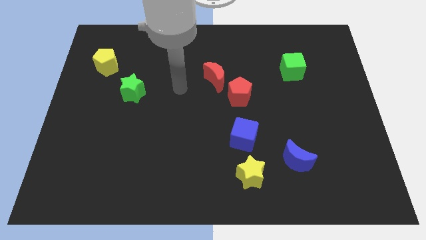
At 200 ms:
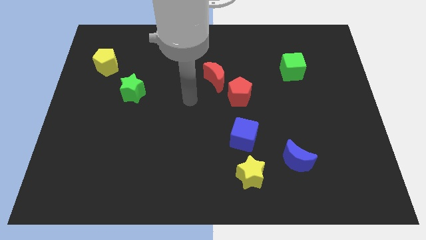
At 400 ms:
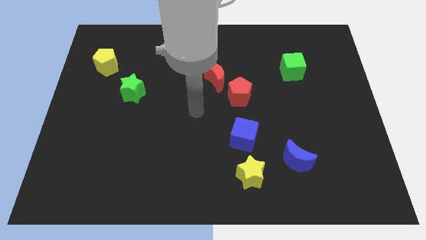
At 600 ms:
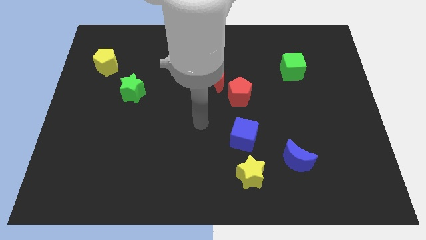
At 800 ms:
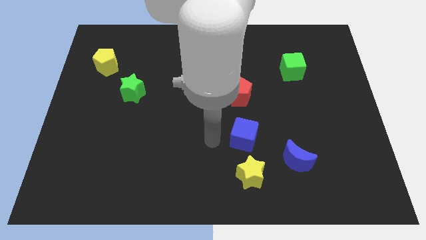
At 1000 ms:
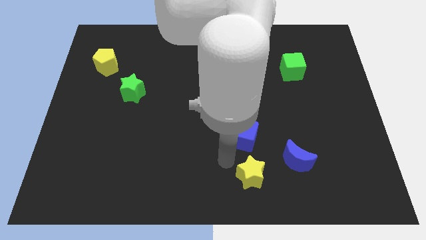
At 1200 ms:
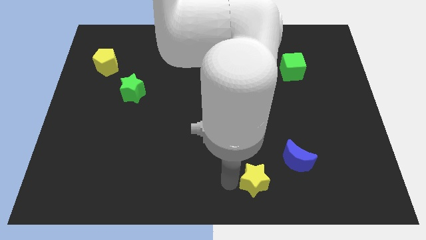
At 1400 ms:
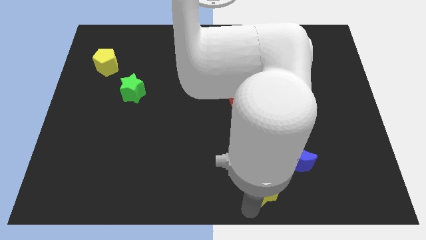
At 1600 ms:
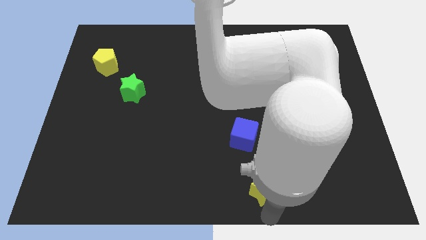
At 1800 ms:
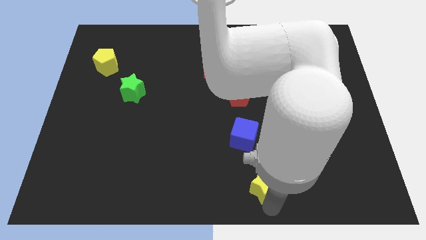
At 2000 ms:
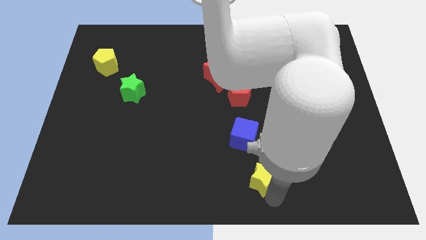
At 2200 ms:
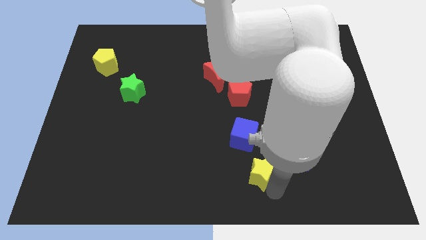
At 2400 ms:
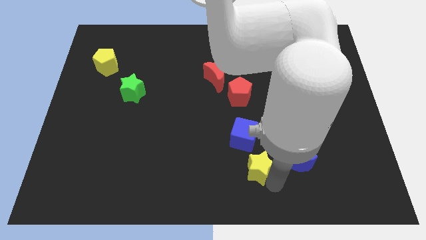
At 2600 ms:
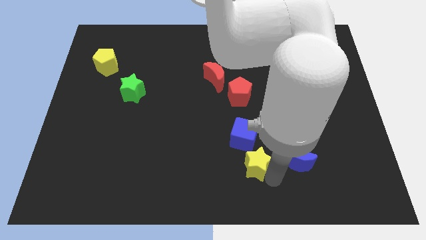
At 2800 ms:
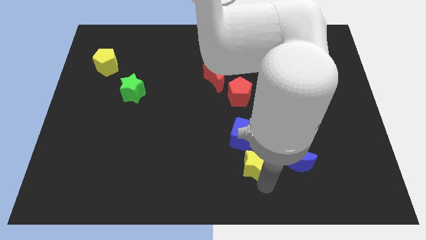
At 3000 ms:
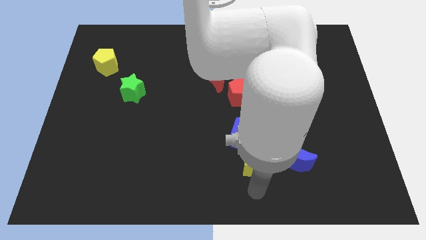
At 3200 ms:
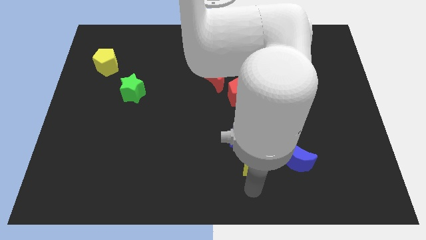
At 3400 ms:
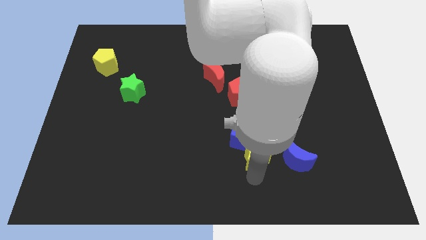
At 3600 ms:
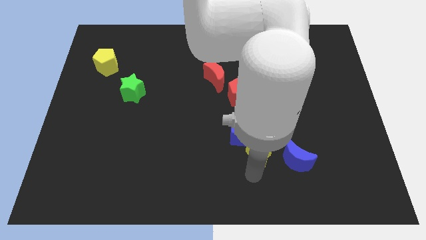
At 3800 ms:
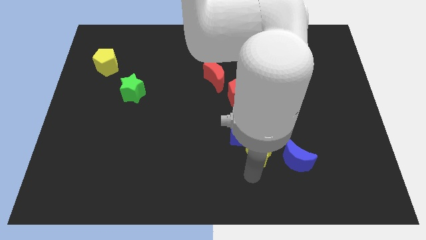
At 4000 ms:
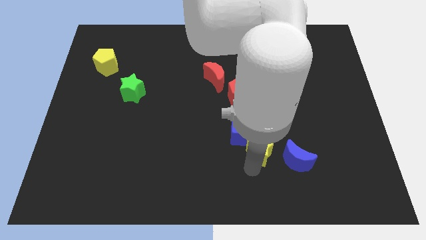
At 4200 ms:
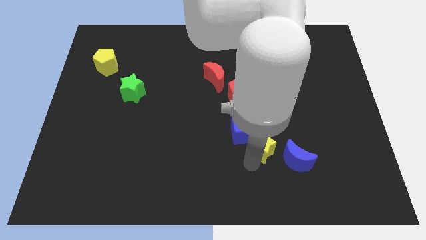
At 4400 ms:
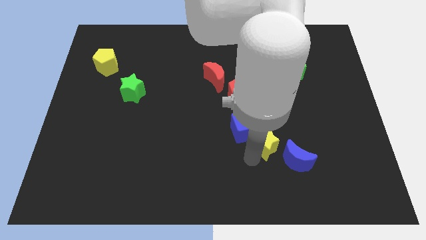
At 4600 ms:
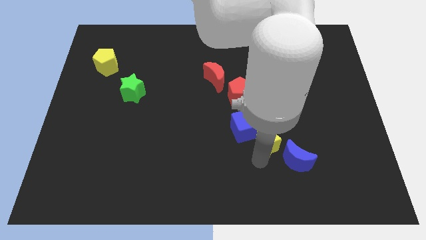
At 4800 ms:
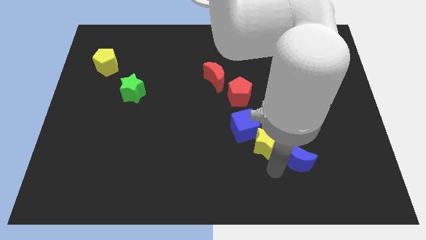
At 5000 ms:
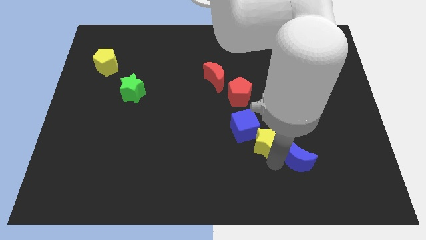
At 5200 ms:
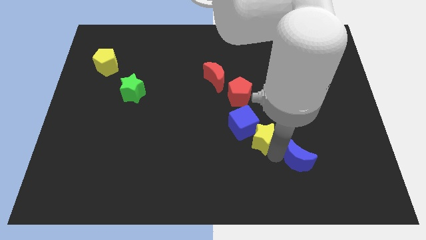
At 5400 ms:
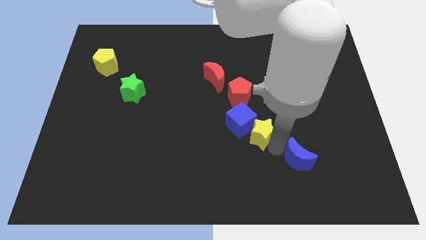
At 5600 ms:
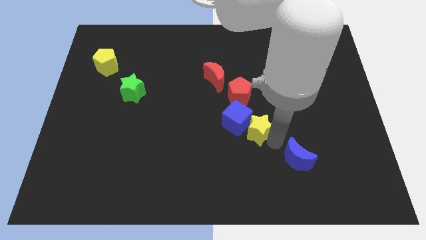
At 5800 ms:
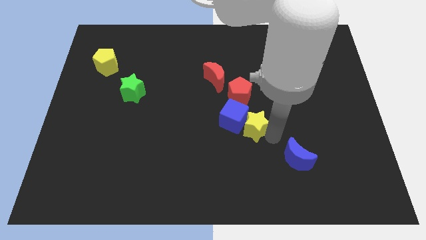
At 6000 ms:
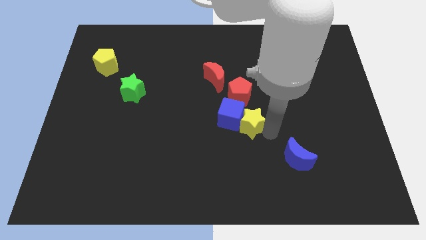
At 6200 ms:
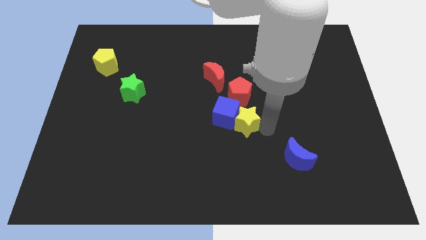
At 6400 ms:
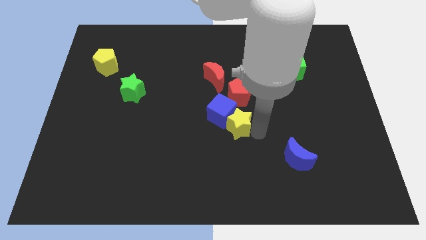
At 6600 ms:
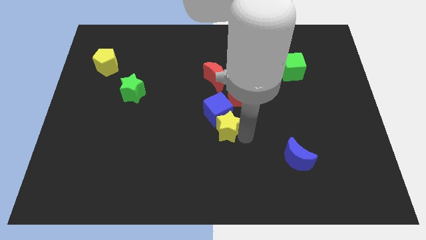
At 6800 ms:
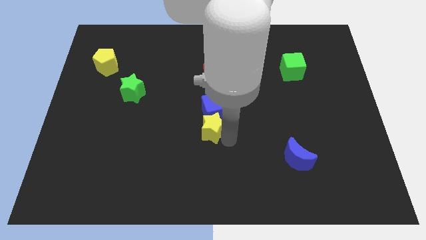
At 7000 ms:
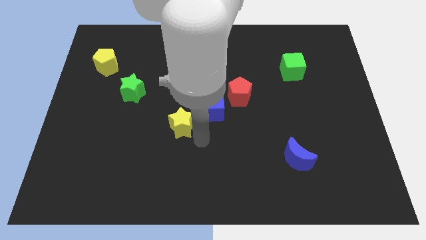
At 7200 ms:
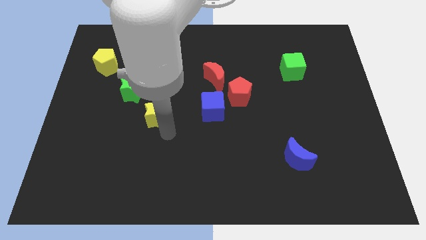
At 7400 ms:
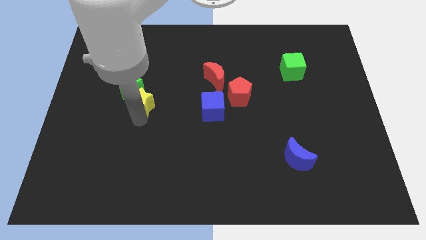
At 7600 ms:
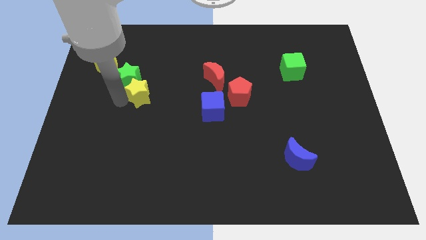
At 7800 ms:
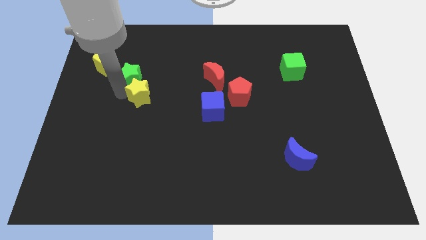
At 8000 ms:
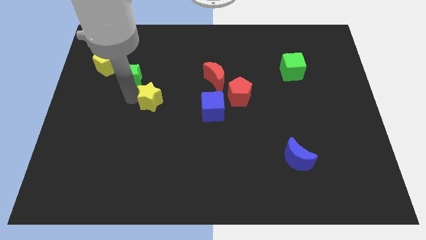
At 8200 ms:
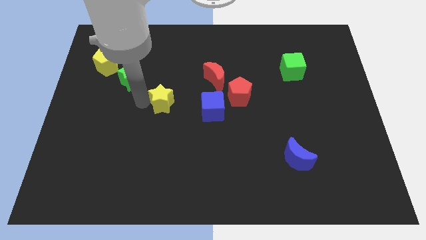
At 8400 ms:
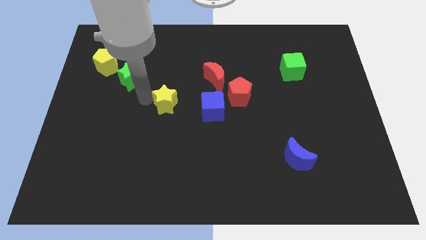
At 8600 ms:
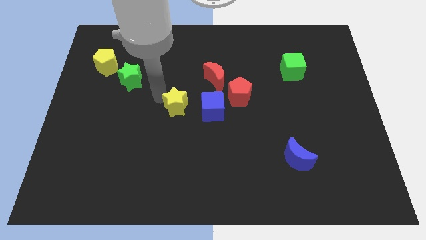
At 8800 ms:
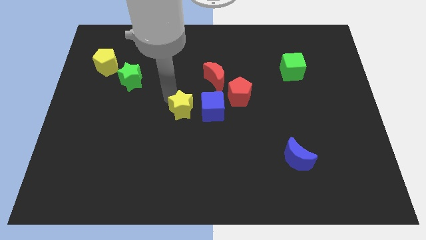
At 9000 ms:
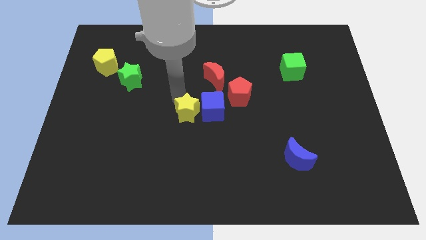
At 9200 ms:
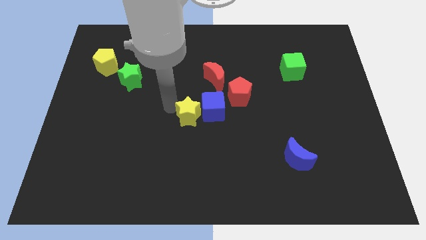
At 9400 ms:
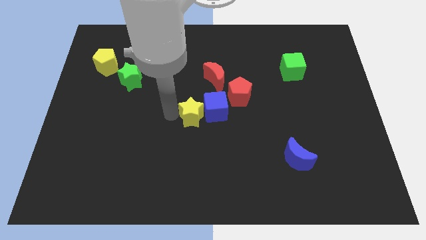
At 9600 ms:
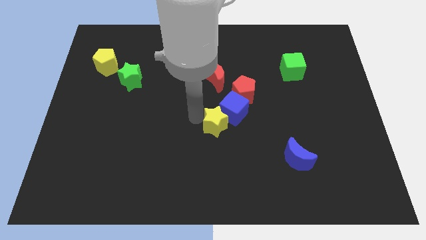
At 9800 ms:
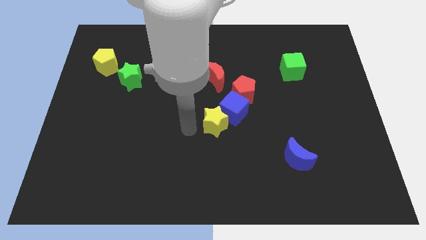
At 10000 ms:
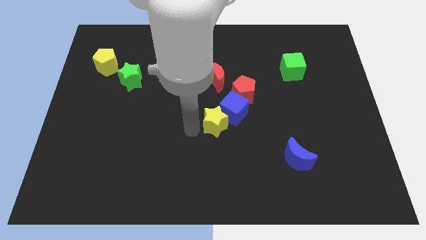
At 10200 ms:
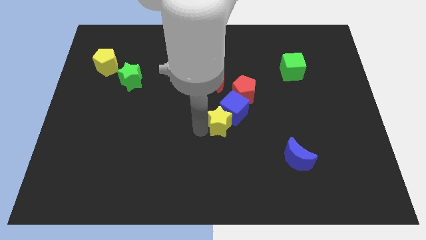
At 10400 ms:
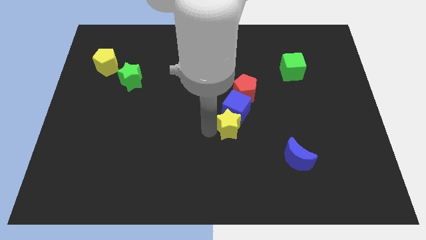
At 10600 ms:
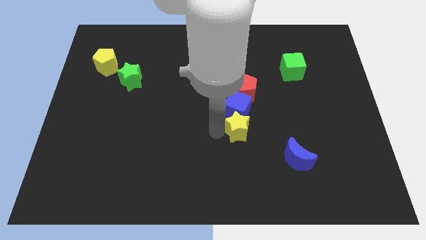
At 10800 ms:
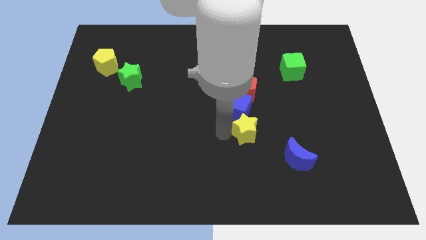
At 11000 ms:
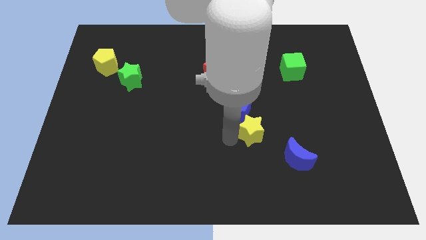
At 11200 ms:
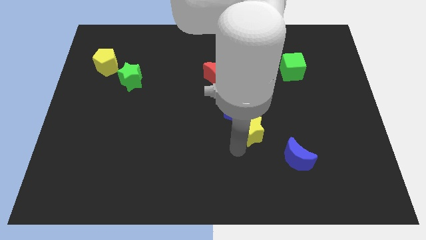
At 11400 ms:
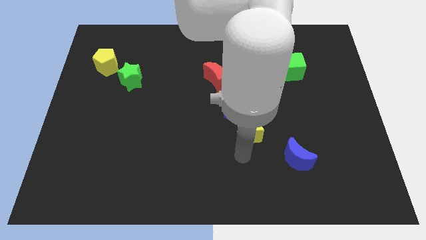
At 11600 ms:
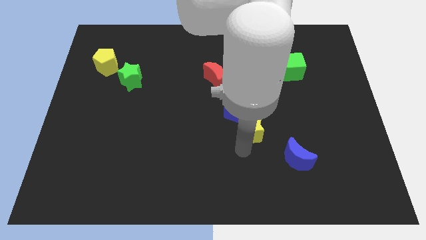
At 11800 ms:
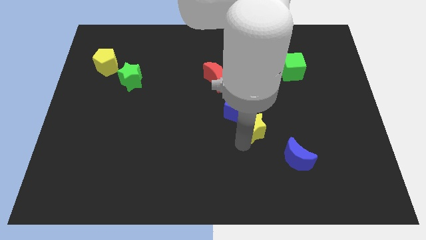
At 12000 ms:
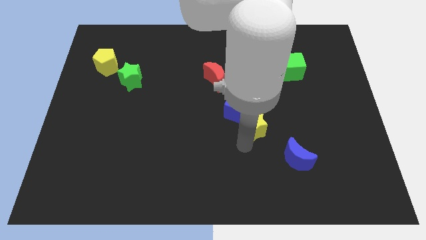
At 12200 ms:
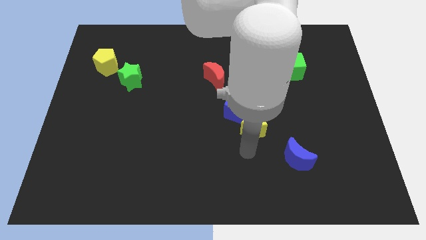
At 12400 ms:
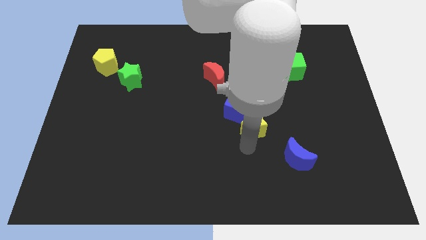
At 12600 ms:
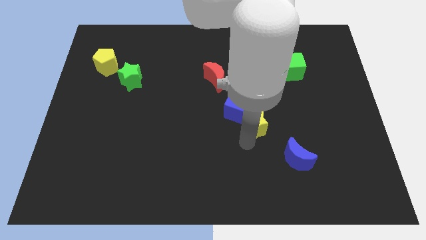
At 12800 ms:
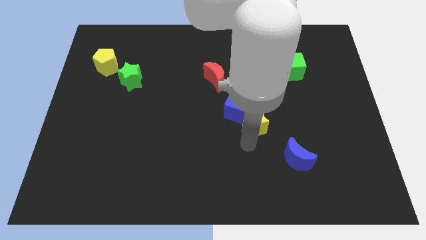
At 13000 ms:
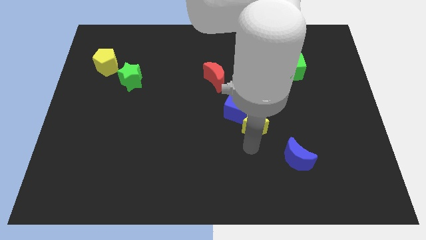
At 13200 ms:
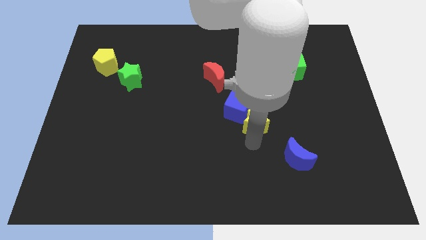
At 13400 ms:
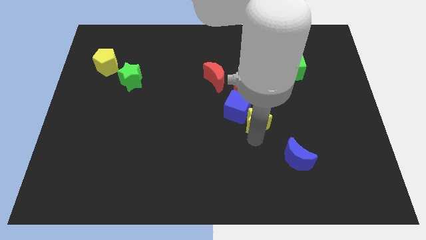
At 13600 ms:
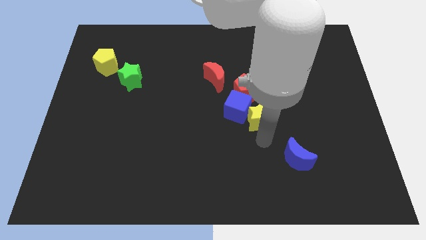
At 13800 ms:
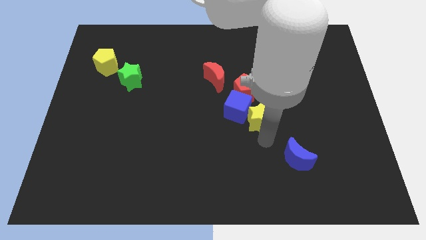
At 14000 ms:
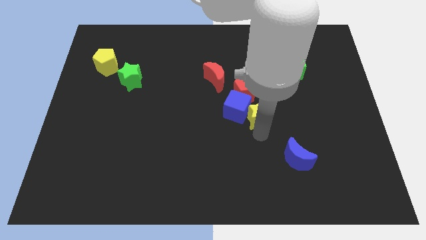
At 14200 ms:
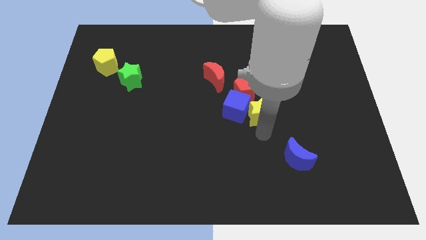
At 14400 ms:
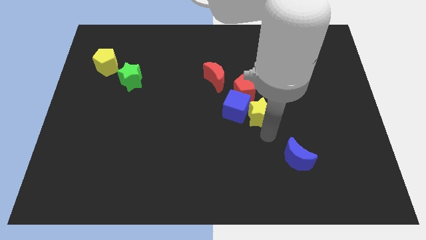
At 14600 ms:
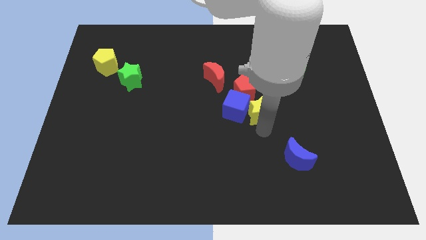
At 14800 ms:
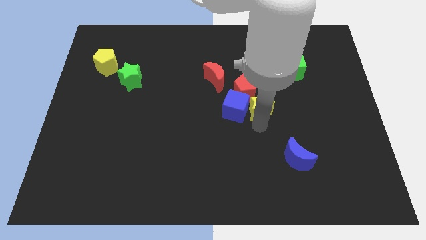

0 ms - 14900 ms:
put the yellow star next to the red pentagon

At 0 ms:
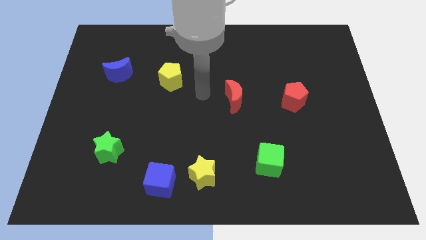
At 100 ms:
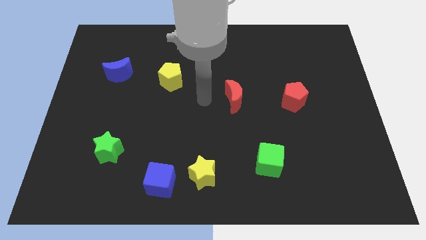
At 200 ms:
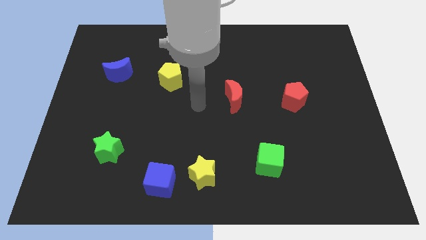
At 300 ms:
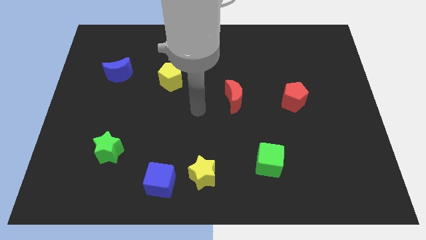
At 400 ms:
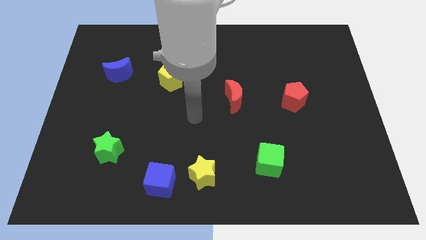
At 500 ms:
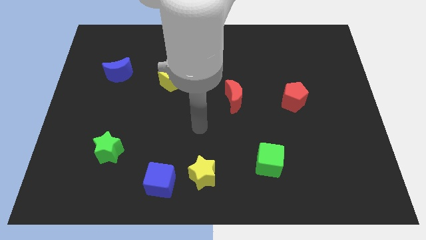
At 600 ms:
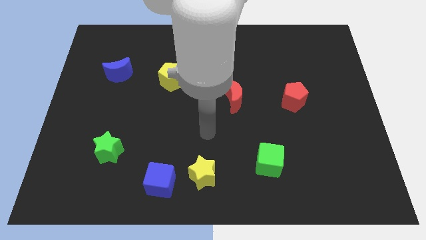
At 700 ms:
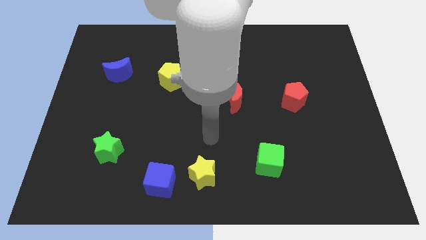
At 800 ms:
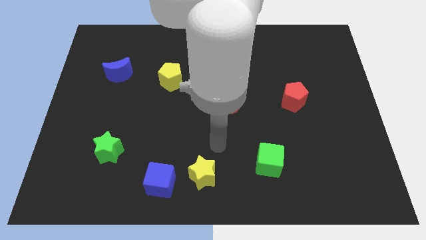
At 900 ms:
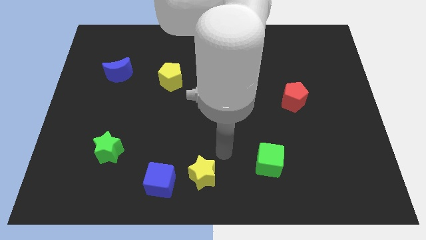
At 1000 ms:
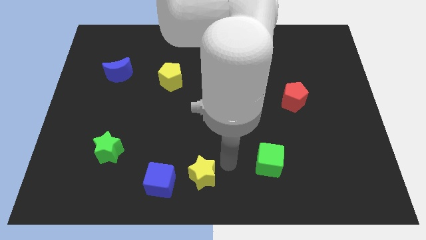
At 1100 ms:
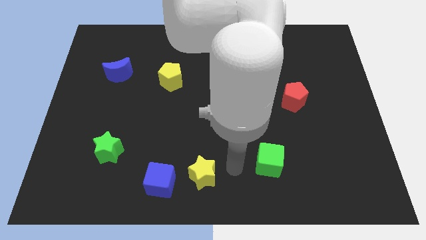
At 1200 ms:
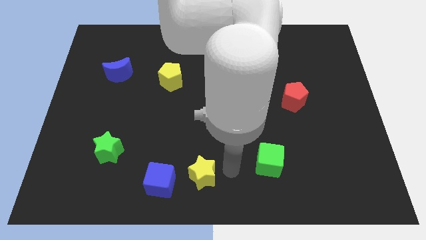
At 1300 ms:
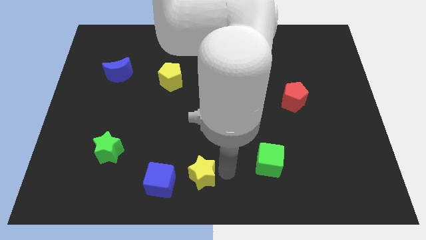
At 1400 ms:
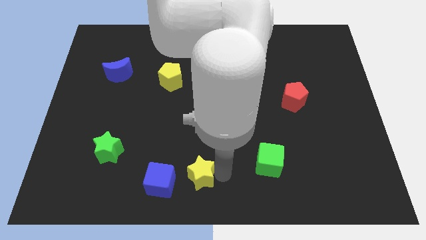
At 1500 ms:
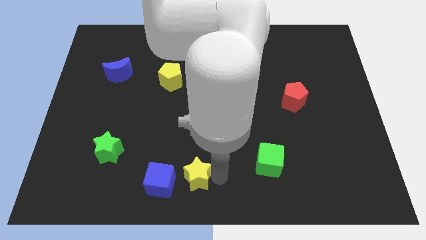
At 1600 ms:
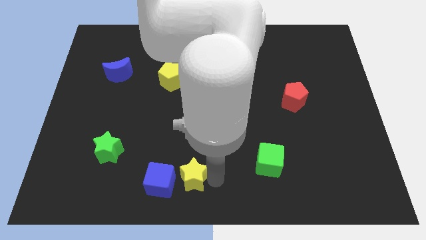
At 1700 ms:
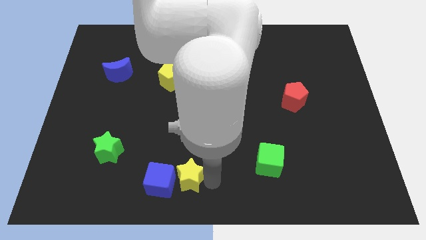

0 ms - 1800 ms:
move the yellow star towards the blue cube
